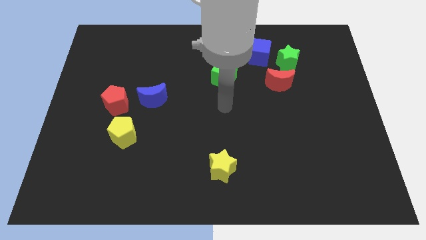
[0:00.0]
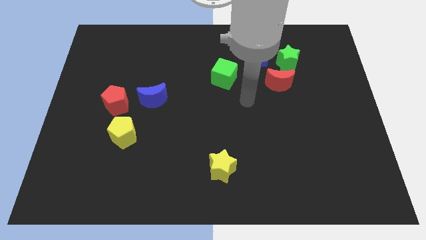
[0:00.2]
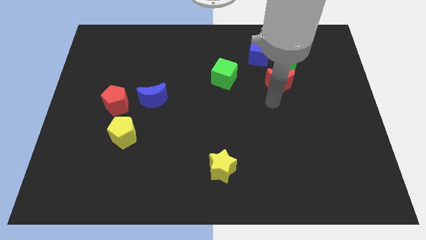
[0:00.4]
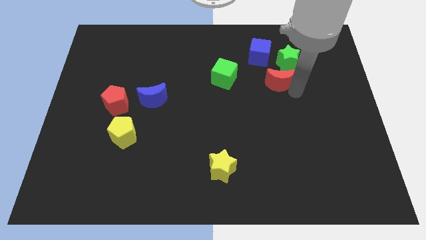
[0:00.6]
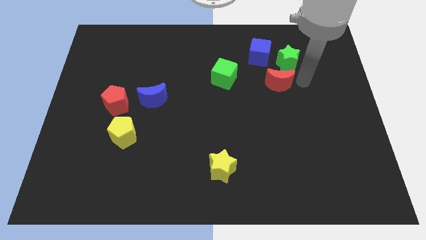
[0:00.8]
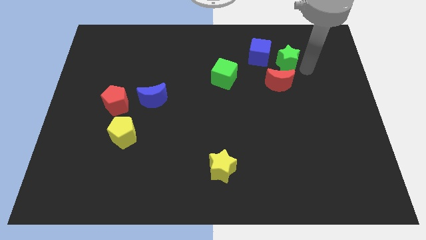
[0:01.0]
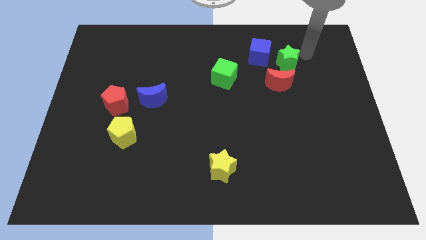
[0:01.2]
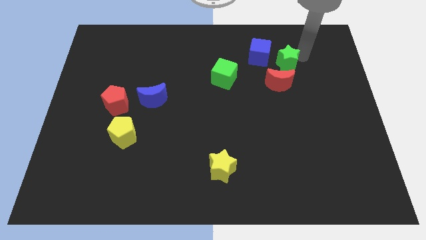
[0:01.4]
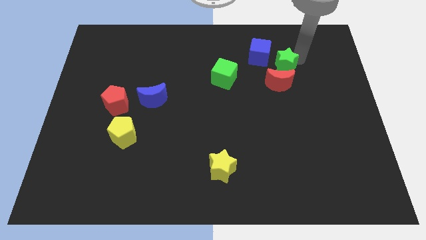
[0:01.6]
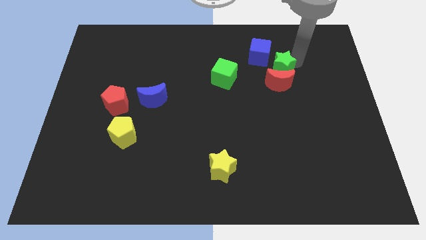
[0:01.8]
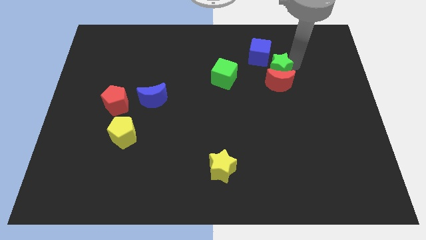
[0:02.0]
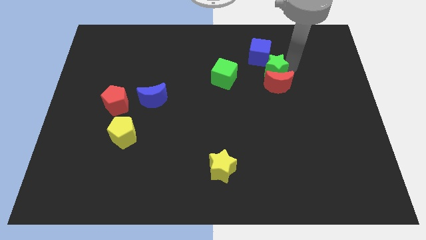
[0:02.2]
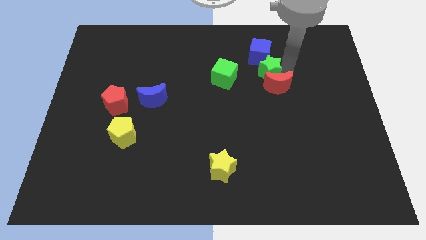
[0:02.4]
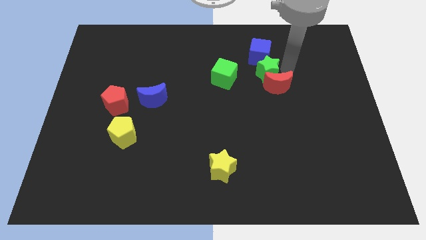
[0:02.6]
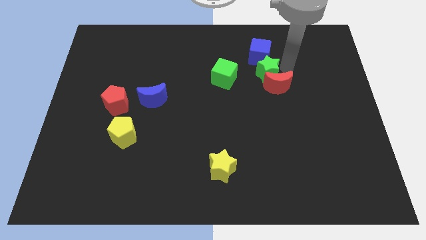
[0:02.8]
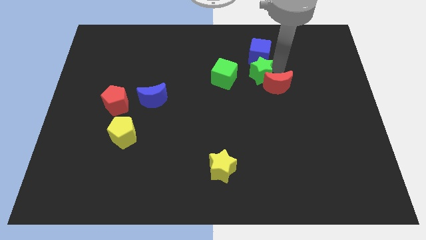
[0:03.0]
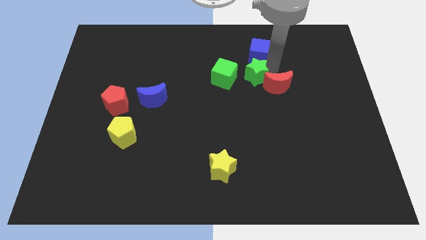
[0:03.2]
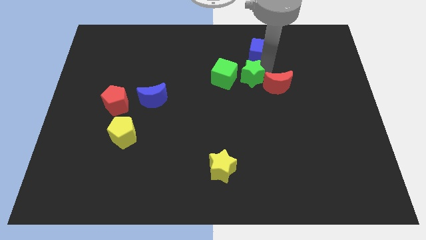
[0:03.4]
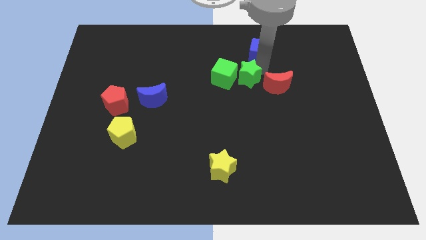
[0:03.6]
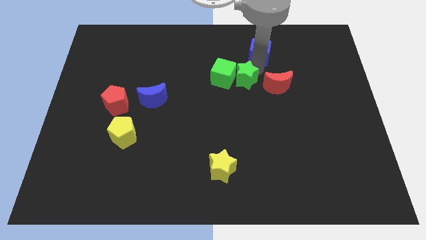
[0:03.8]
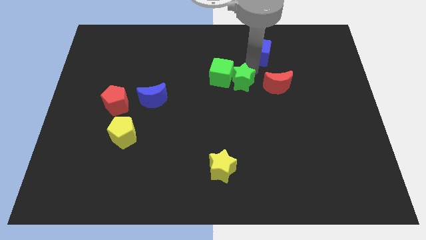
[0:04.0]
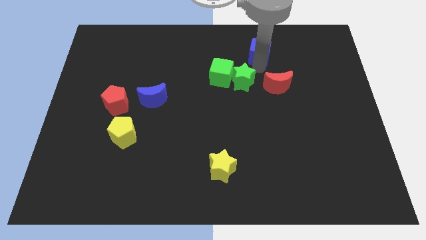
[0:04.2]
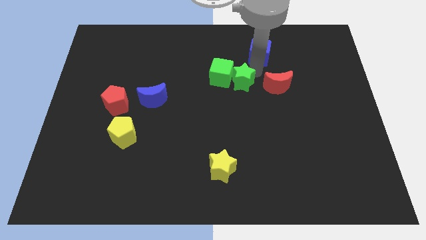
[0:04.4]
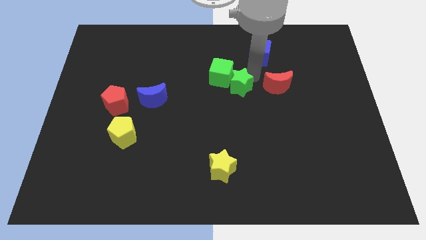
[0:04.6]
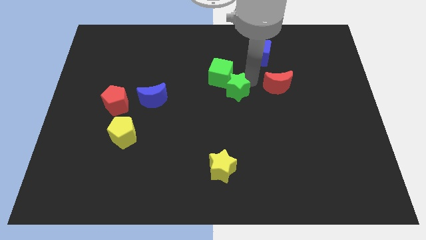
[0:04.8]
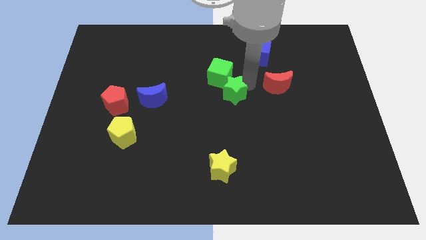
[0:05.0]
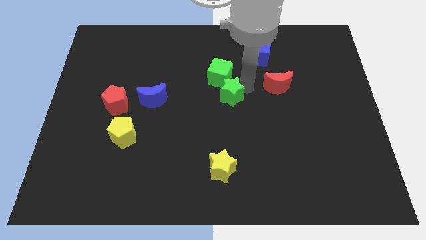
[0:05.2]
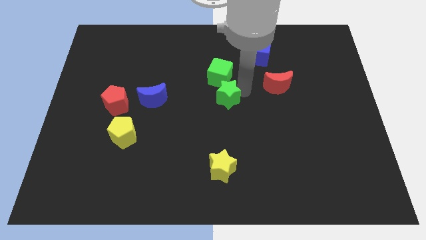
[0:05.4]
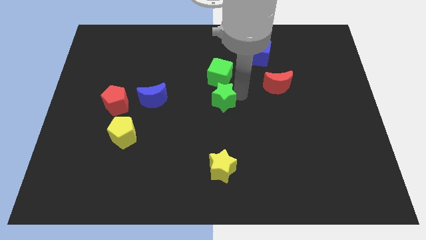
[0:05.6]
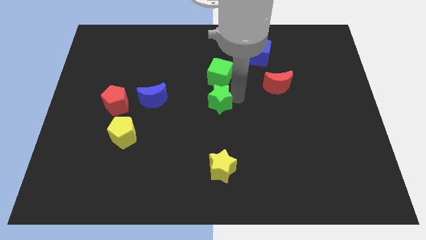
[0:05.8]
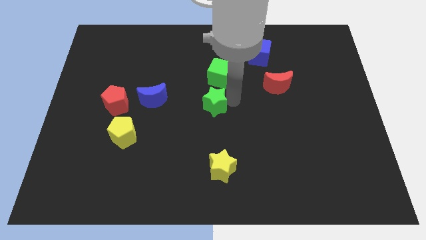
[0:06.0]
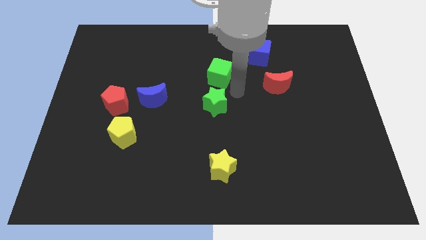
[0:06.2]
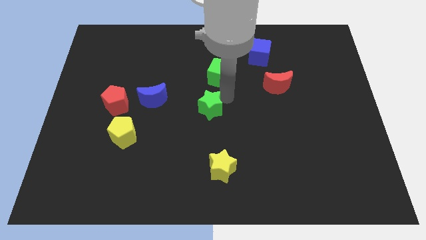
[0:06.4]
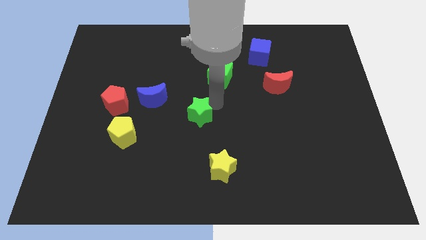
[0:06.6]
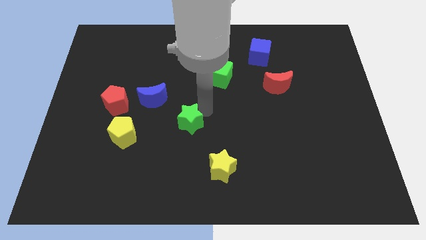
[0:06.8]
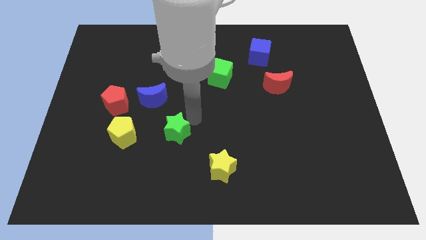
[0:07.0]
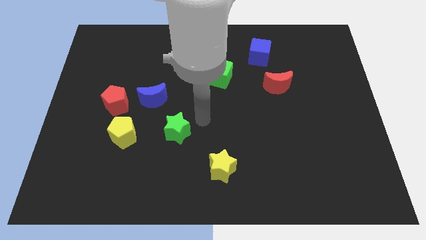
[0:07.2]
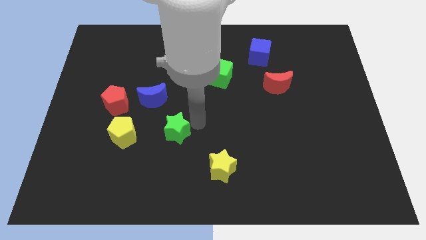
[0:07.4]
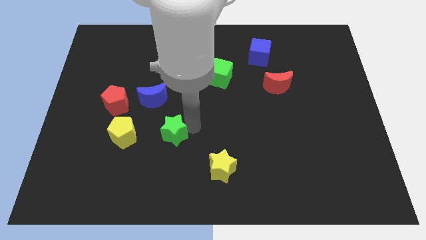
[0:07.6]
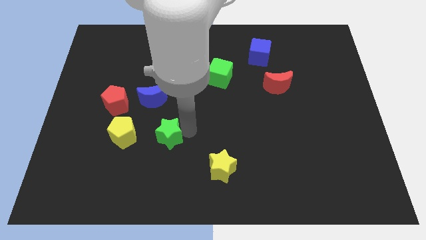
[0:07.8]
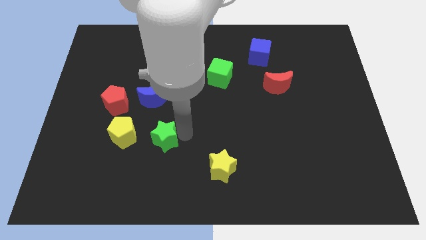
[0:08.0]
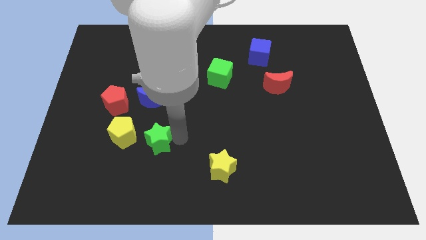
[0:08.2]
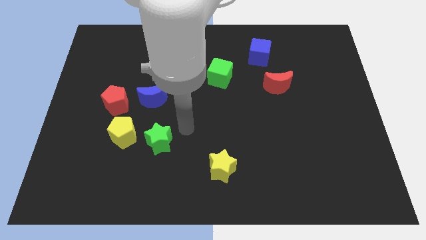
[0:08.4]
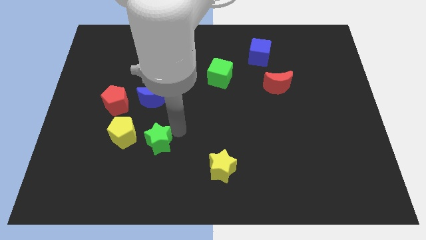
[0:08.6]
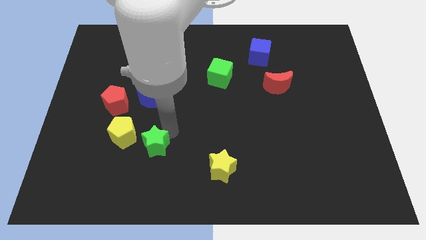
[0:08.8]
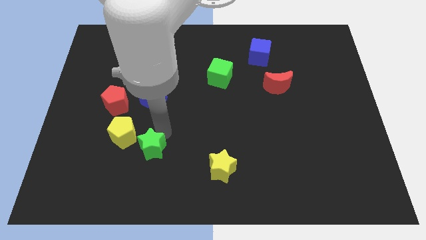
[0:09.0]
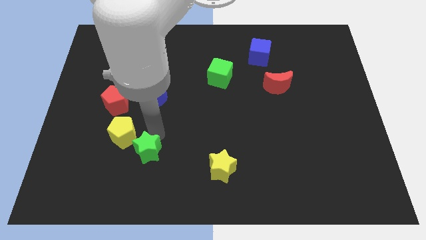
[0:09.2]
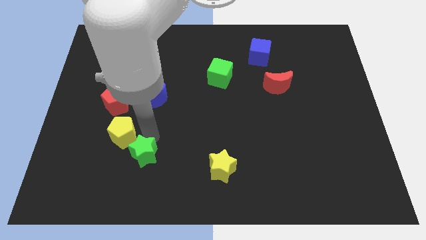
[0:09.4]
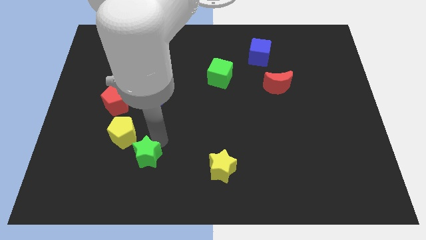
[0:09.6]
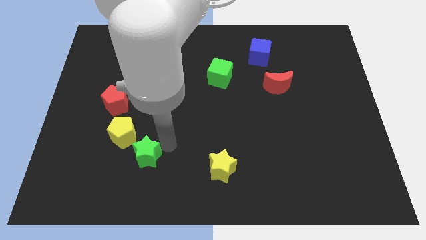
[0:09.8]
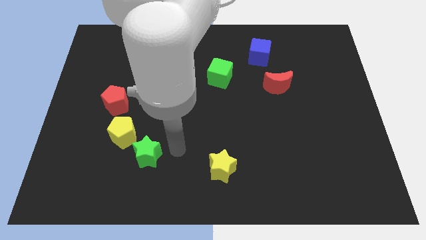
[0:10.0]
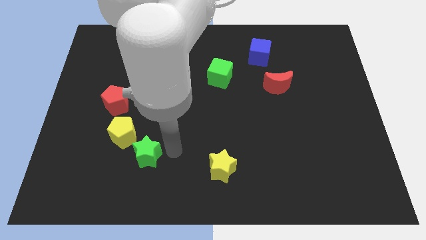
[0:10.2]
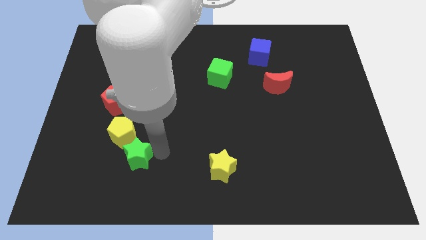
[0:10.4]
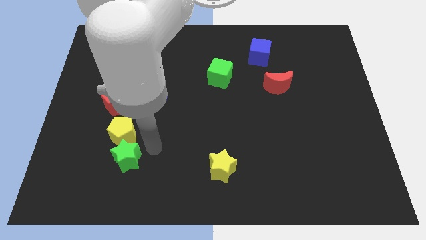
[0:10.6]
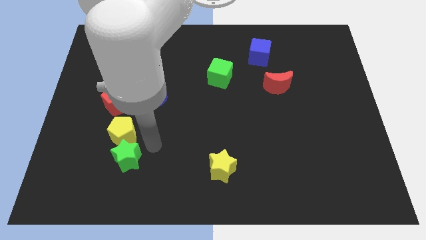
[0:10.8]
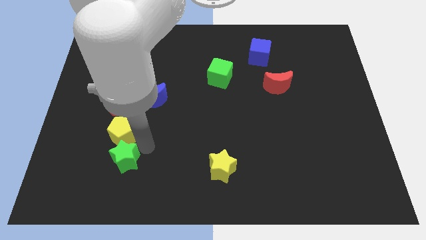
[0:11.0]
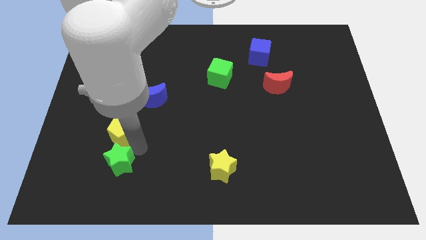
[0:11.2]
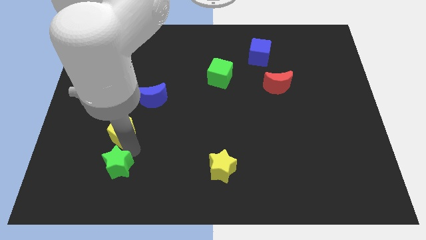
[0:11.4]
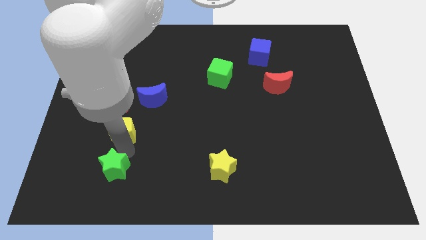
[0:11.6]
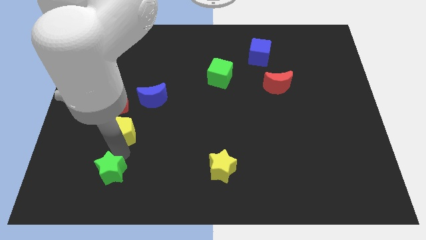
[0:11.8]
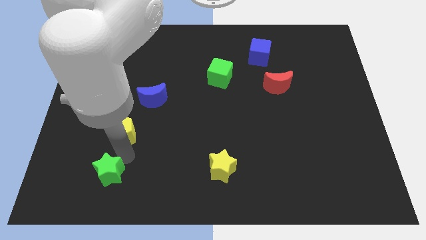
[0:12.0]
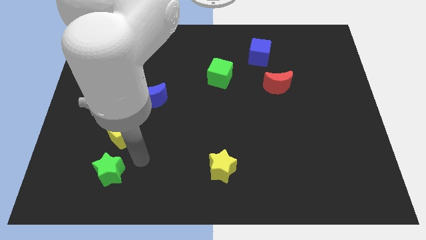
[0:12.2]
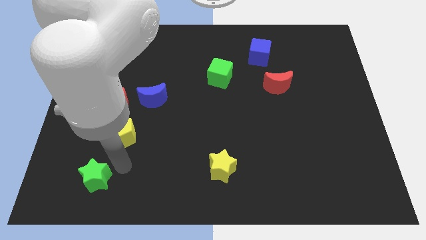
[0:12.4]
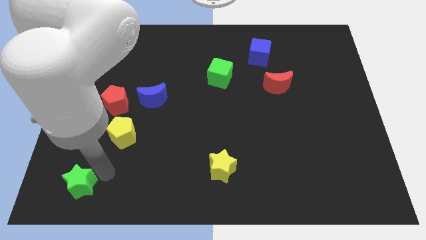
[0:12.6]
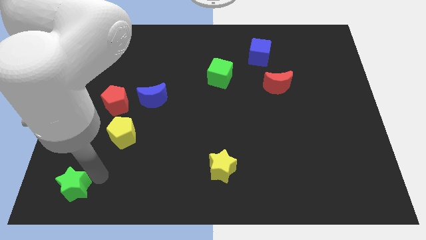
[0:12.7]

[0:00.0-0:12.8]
push the green star to the bottom left corner
